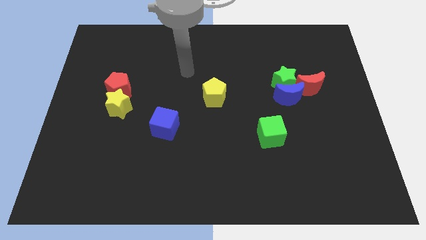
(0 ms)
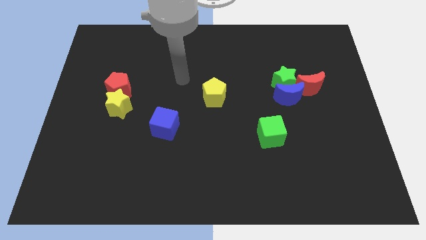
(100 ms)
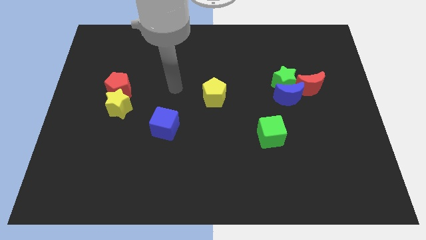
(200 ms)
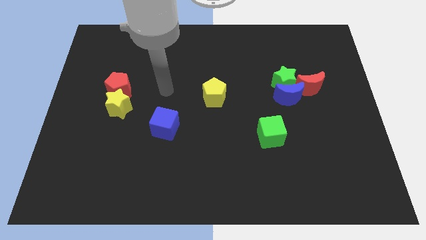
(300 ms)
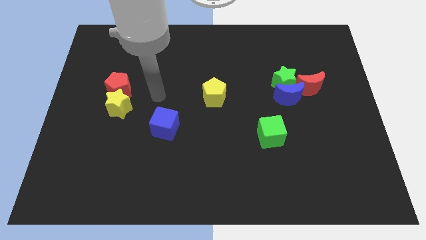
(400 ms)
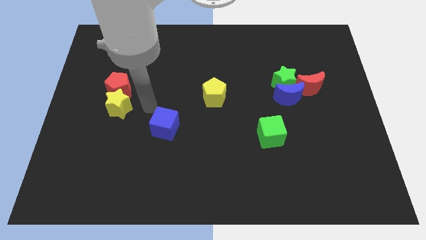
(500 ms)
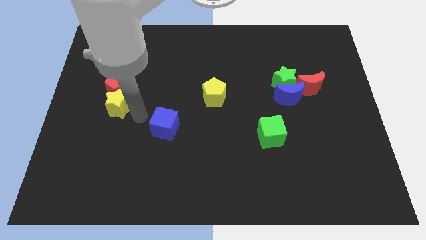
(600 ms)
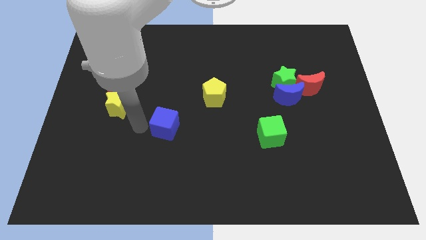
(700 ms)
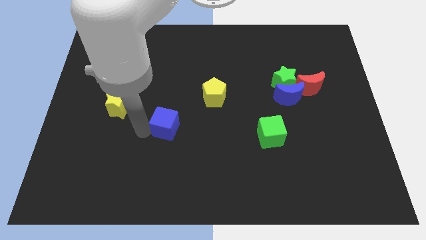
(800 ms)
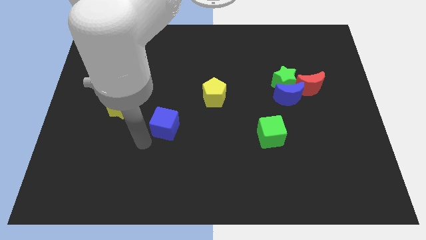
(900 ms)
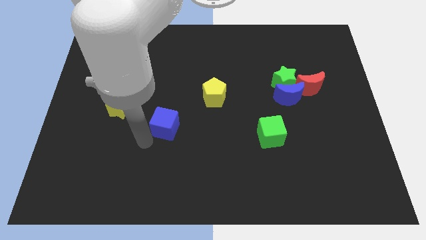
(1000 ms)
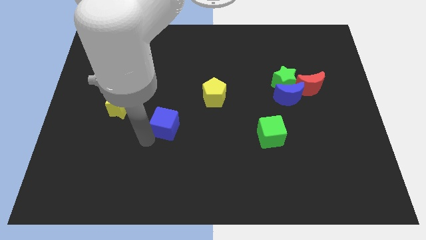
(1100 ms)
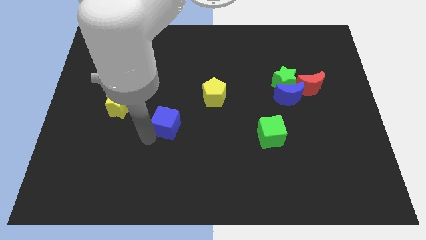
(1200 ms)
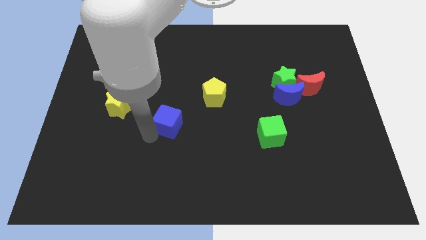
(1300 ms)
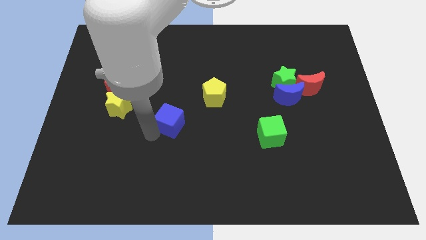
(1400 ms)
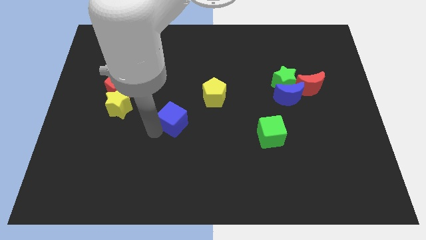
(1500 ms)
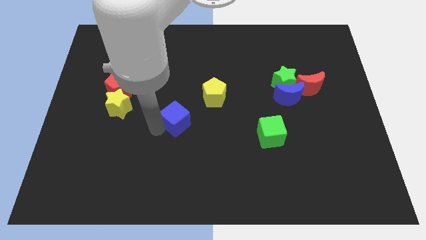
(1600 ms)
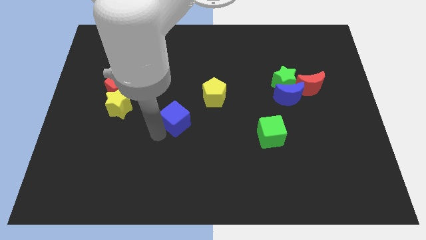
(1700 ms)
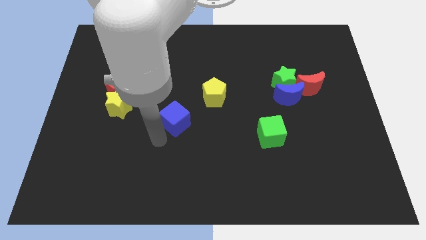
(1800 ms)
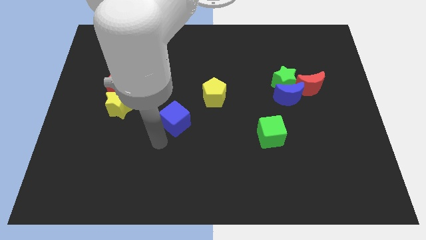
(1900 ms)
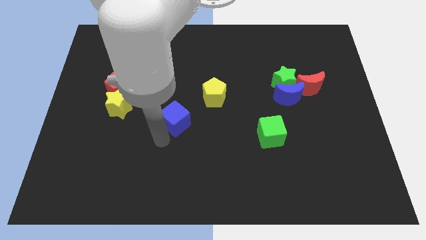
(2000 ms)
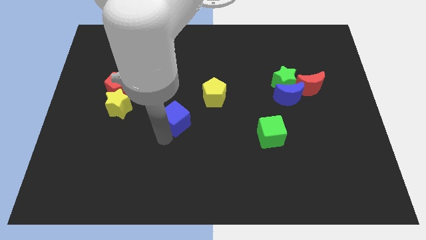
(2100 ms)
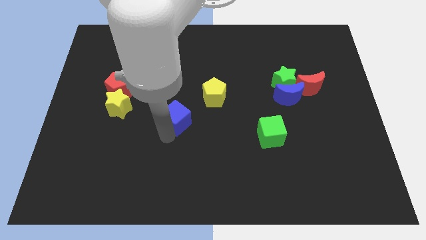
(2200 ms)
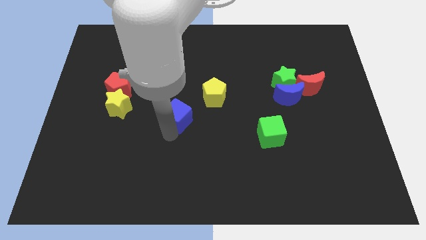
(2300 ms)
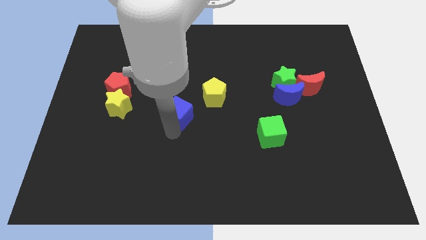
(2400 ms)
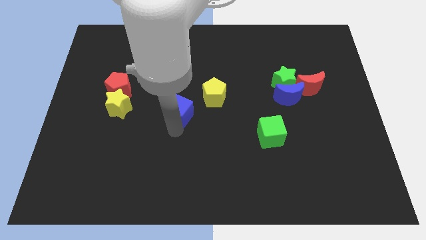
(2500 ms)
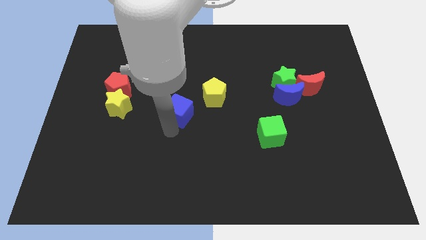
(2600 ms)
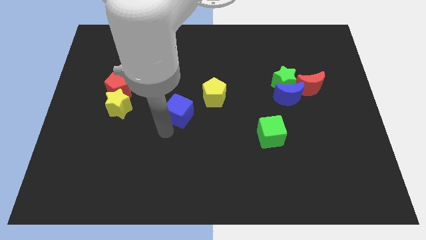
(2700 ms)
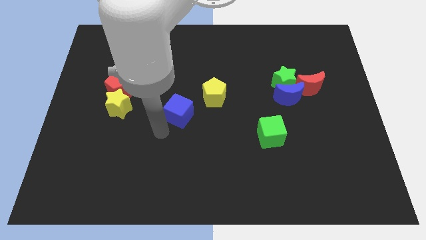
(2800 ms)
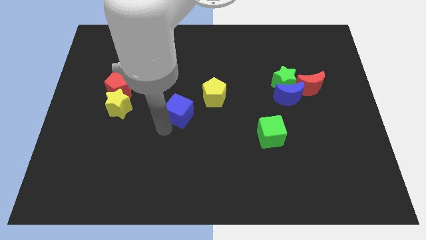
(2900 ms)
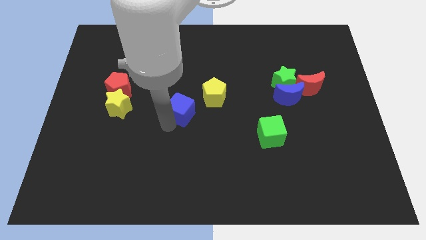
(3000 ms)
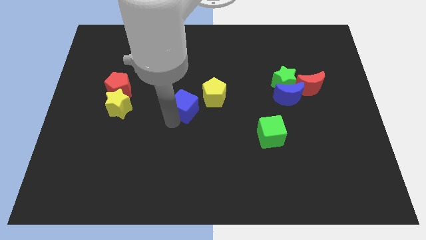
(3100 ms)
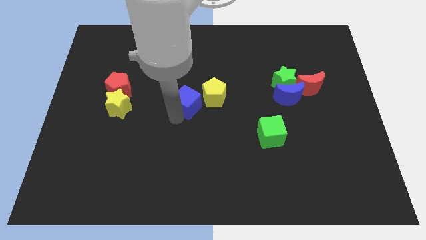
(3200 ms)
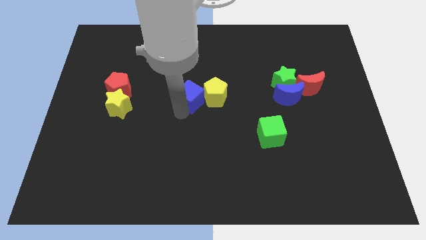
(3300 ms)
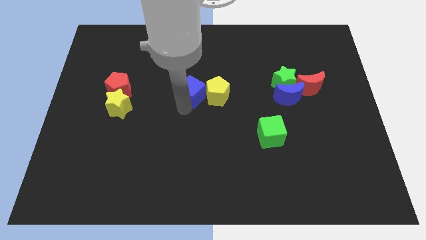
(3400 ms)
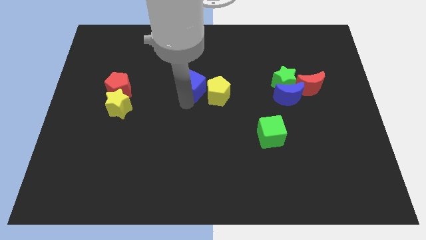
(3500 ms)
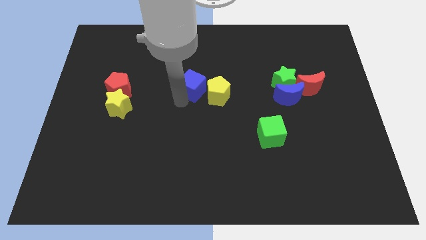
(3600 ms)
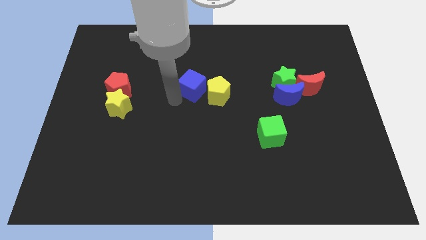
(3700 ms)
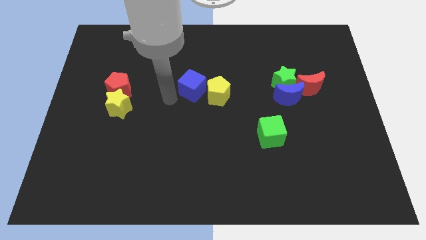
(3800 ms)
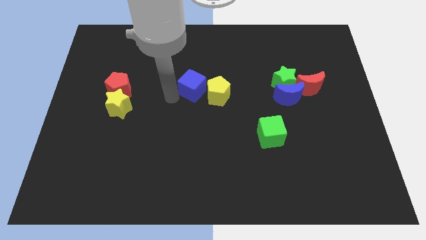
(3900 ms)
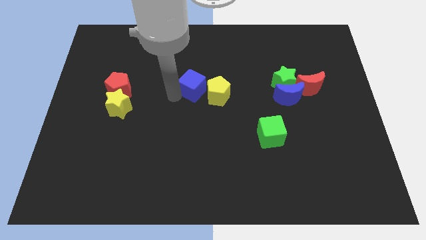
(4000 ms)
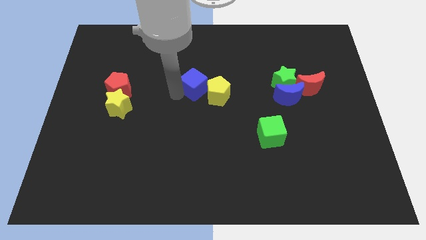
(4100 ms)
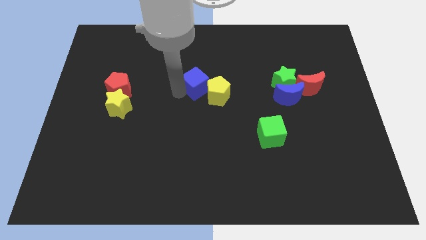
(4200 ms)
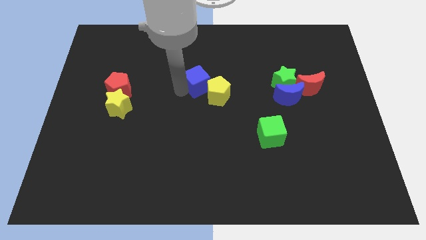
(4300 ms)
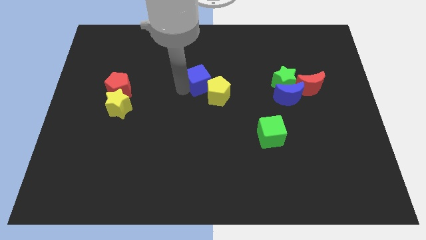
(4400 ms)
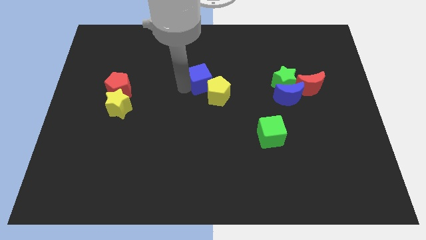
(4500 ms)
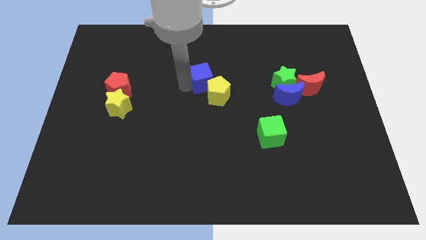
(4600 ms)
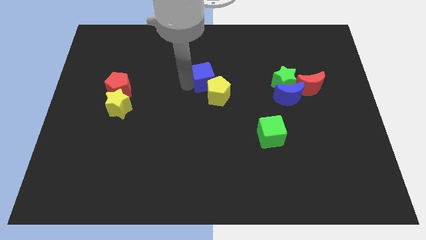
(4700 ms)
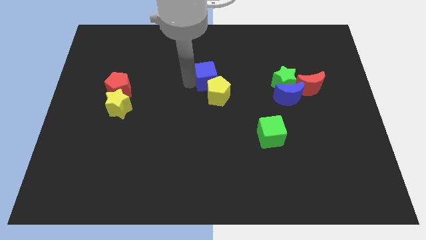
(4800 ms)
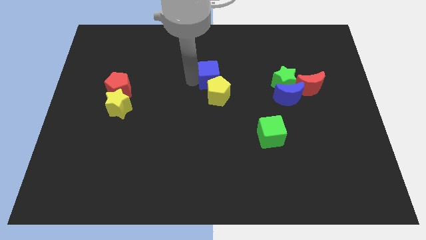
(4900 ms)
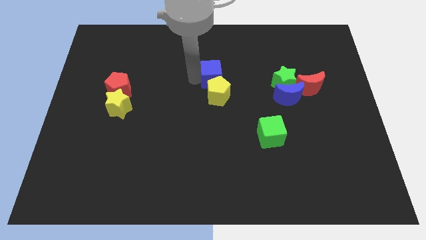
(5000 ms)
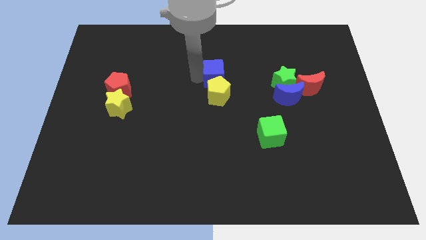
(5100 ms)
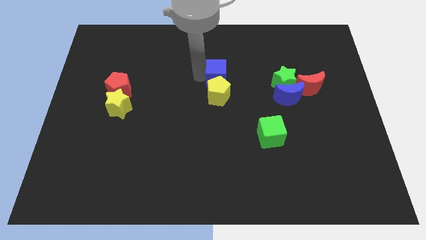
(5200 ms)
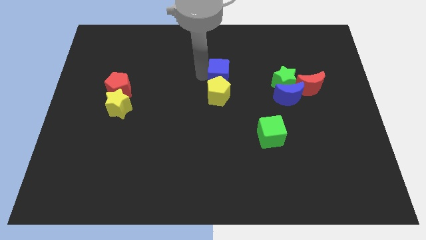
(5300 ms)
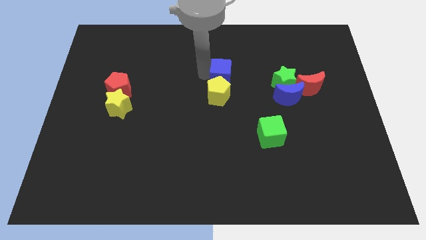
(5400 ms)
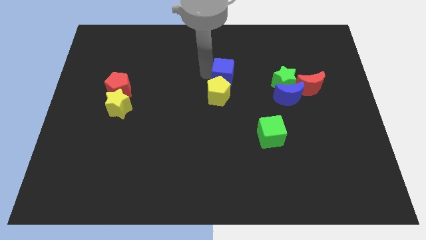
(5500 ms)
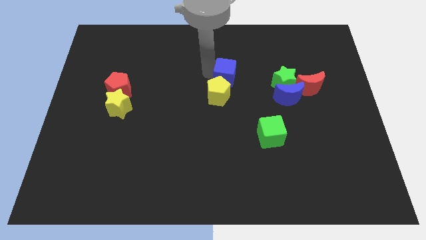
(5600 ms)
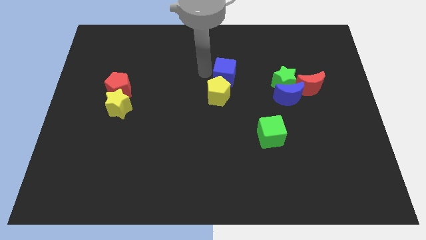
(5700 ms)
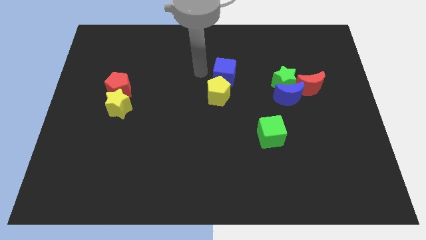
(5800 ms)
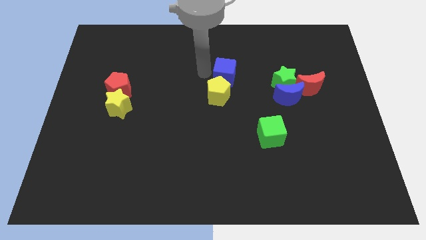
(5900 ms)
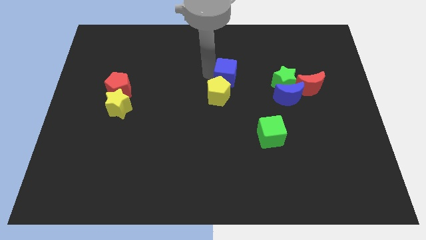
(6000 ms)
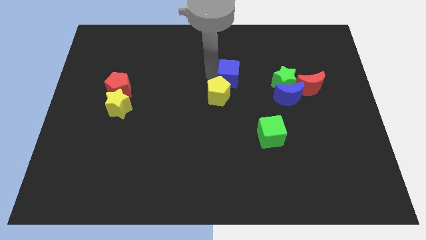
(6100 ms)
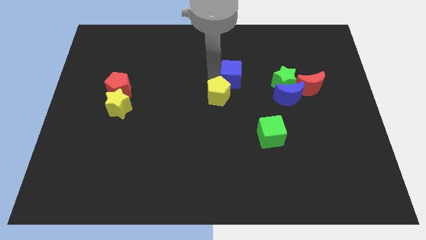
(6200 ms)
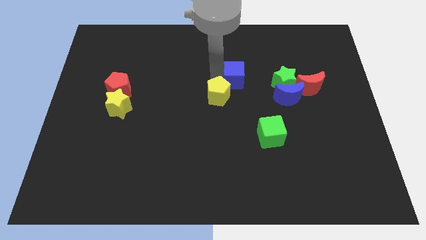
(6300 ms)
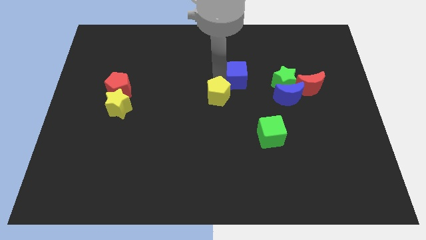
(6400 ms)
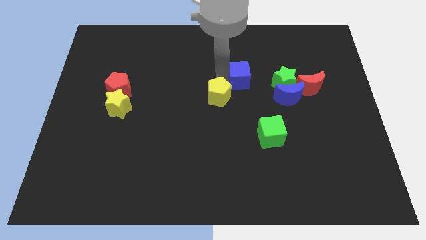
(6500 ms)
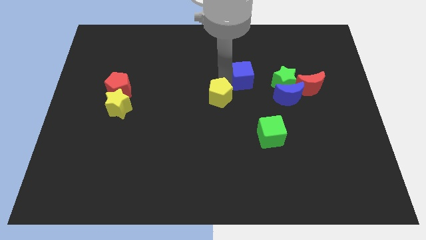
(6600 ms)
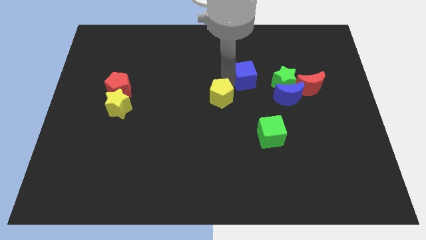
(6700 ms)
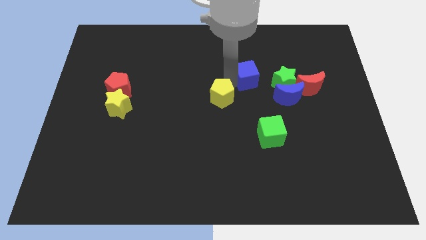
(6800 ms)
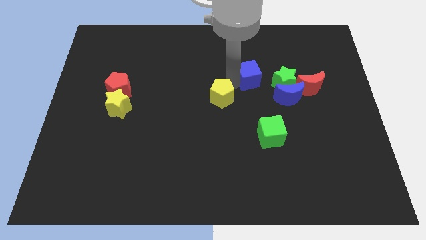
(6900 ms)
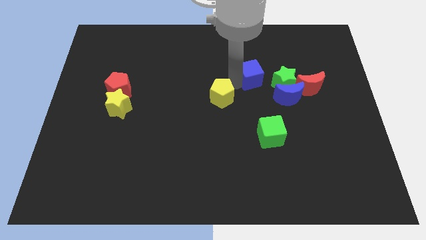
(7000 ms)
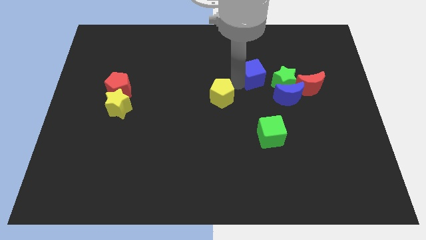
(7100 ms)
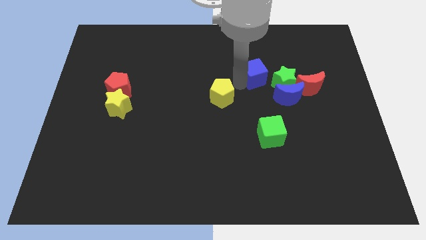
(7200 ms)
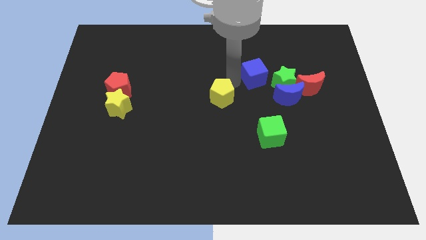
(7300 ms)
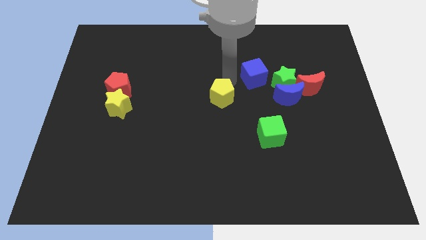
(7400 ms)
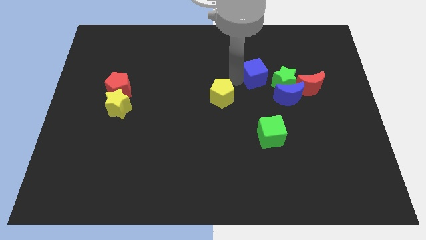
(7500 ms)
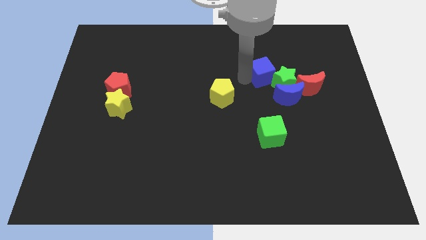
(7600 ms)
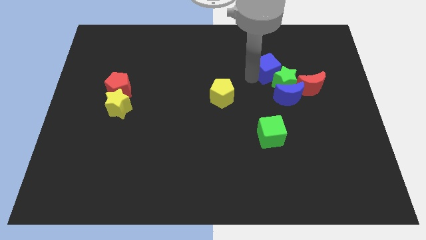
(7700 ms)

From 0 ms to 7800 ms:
push the blue cube diagonally up and to the left of the red moon
